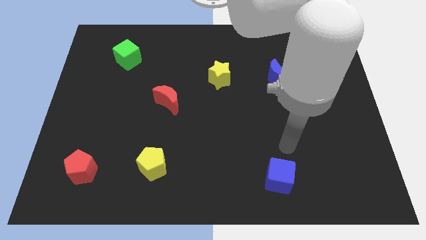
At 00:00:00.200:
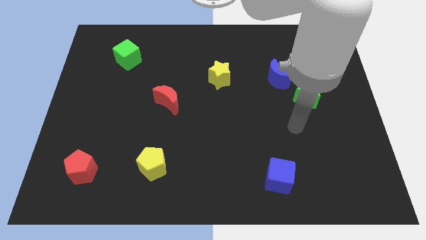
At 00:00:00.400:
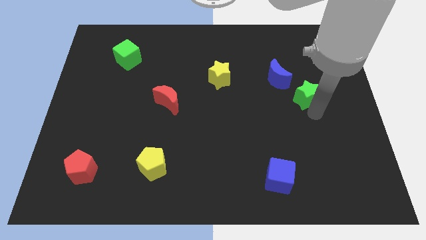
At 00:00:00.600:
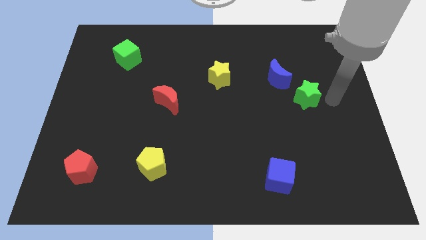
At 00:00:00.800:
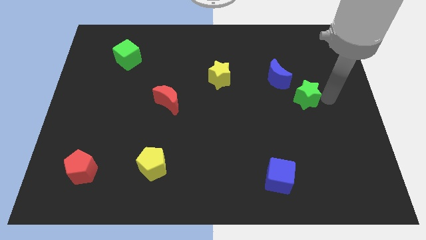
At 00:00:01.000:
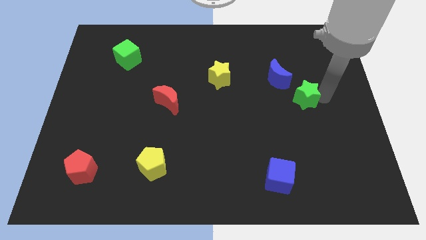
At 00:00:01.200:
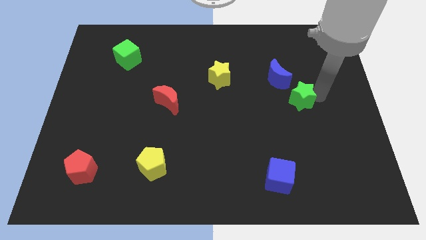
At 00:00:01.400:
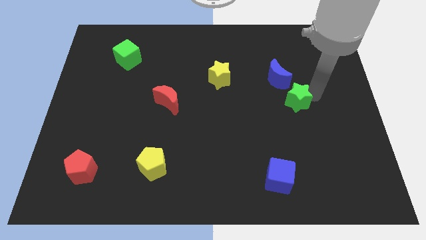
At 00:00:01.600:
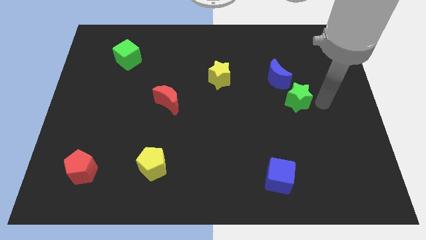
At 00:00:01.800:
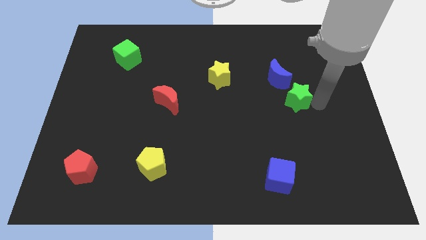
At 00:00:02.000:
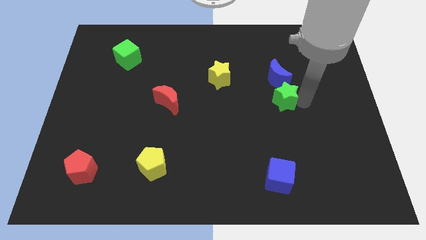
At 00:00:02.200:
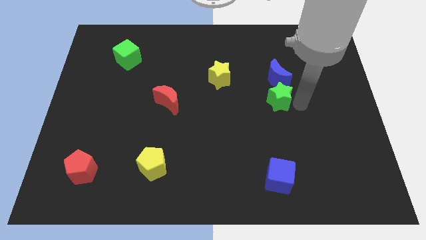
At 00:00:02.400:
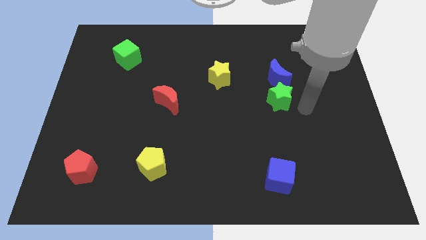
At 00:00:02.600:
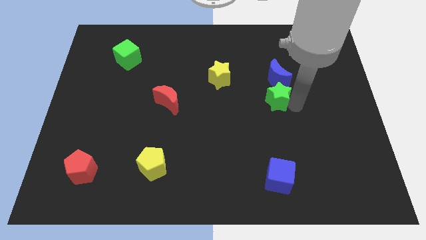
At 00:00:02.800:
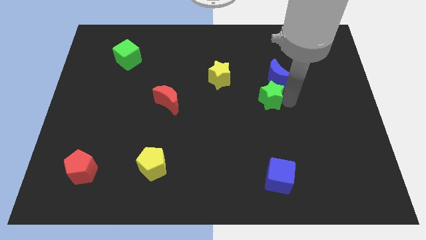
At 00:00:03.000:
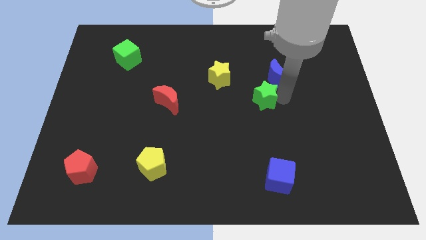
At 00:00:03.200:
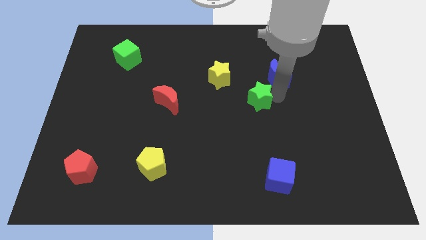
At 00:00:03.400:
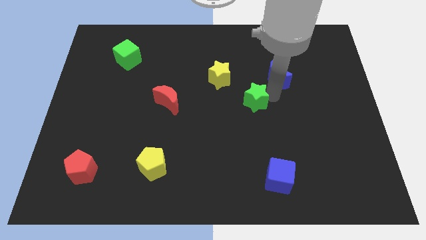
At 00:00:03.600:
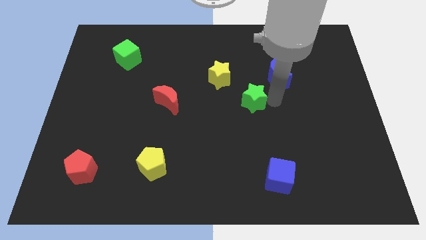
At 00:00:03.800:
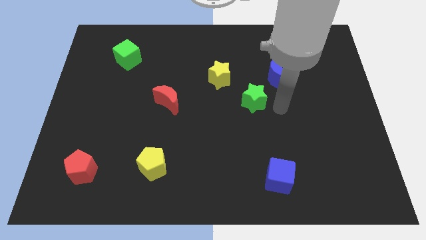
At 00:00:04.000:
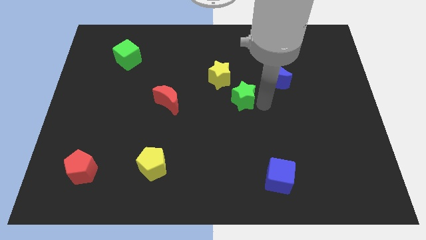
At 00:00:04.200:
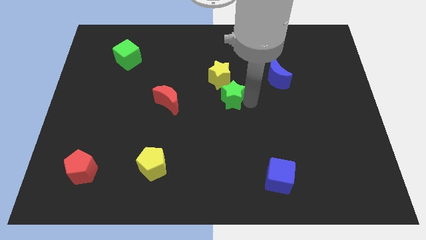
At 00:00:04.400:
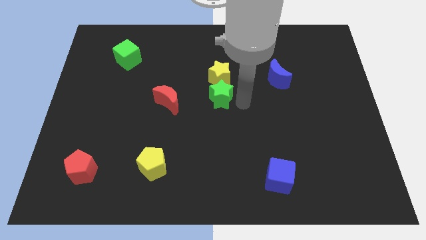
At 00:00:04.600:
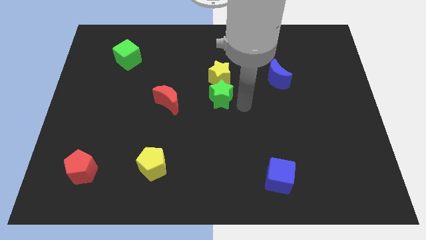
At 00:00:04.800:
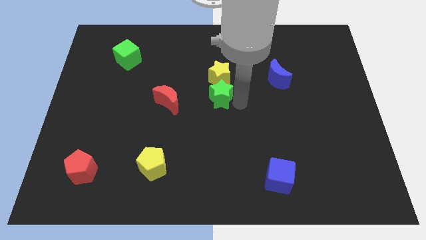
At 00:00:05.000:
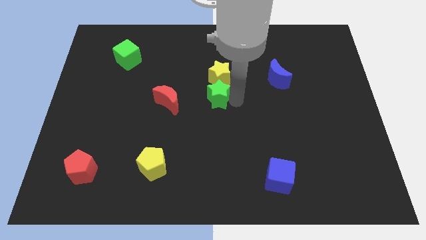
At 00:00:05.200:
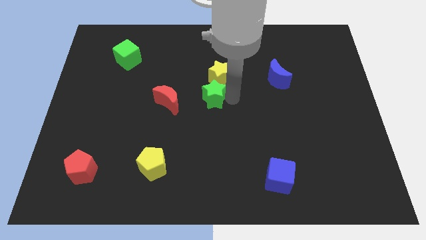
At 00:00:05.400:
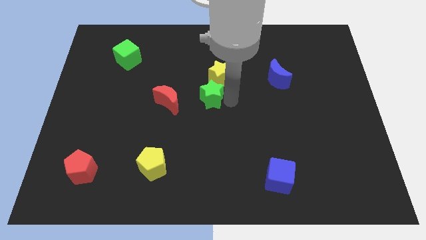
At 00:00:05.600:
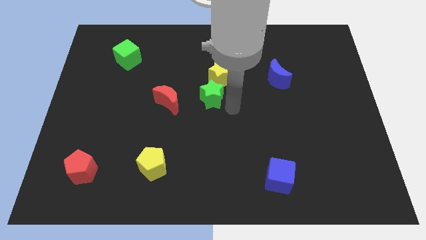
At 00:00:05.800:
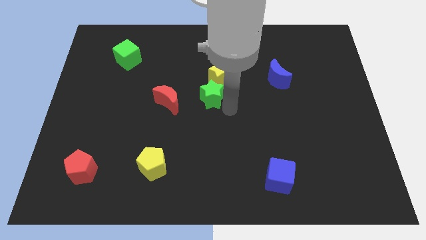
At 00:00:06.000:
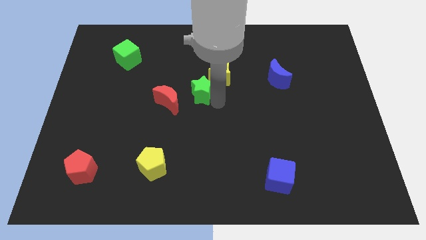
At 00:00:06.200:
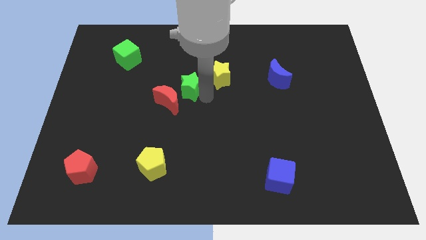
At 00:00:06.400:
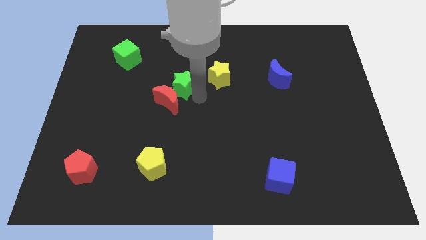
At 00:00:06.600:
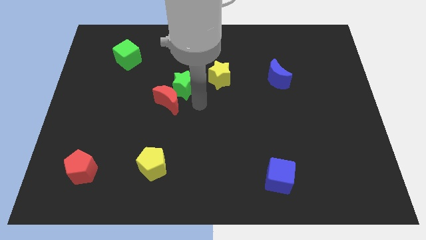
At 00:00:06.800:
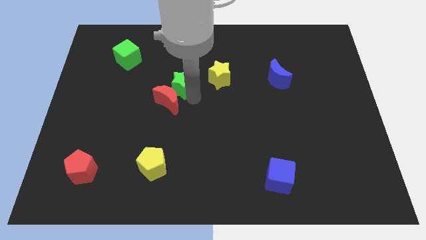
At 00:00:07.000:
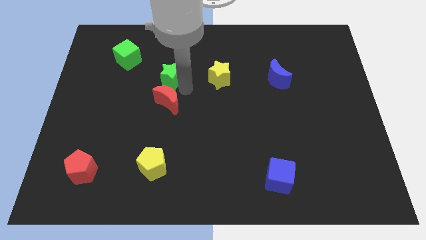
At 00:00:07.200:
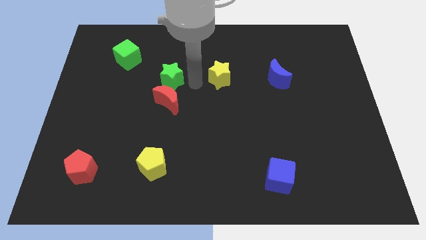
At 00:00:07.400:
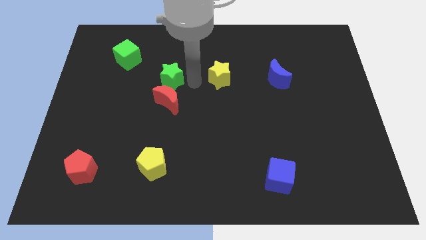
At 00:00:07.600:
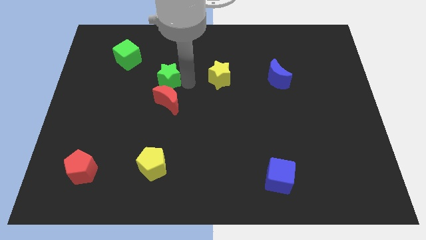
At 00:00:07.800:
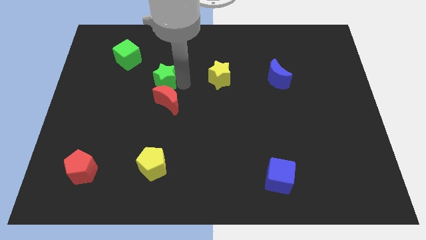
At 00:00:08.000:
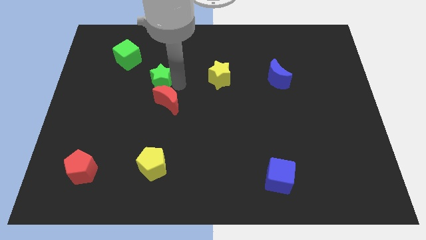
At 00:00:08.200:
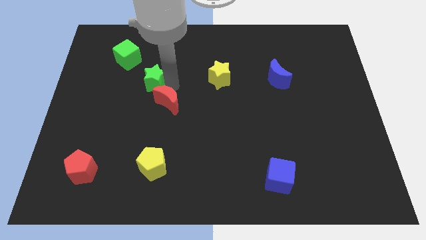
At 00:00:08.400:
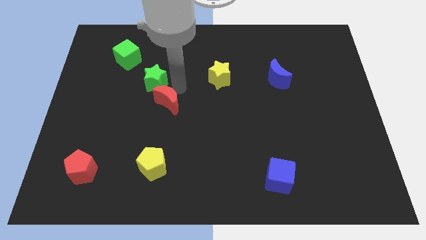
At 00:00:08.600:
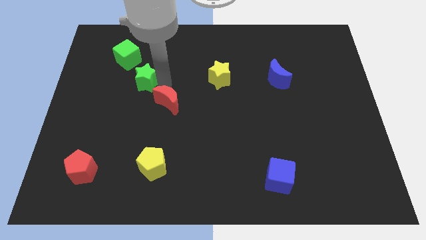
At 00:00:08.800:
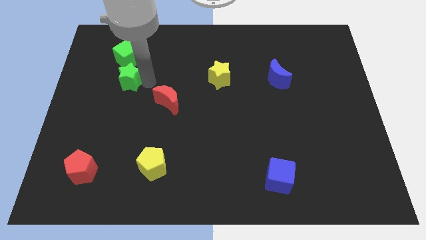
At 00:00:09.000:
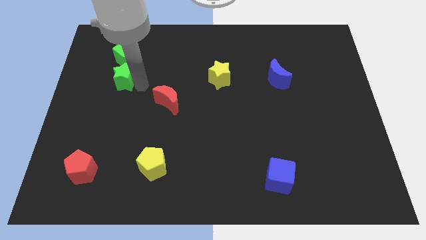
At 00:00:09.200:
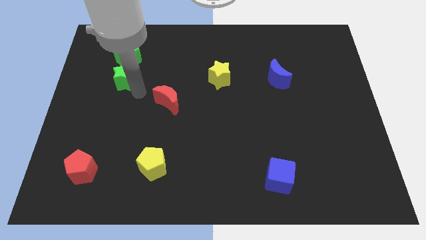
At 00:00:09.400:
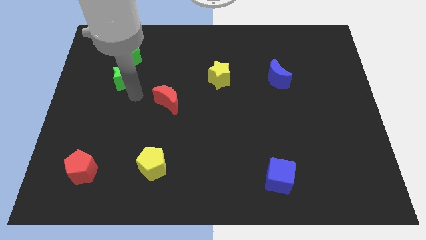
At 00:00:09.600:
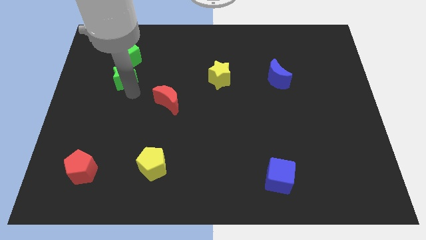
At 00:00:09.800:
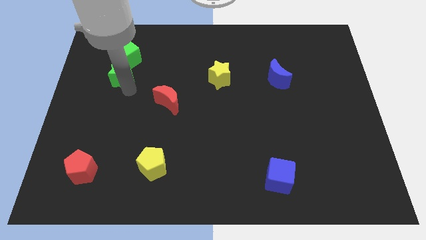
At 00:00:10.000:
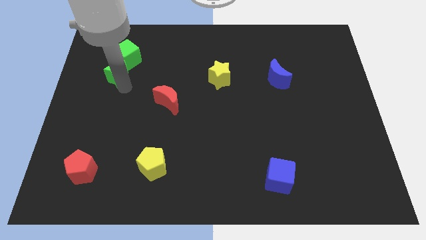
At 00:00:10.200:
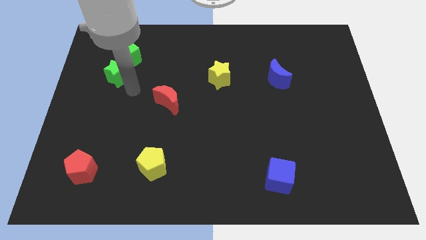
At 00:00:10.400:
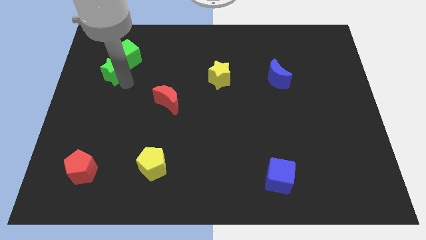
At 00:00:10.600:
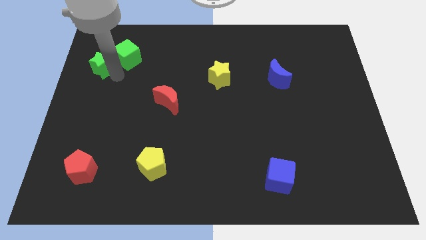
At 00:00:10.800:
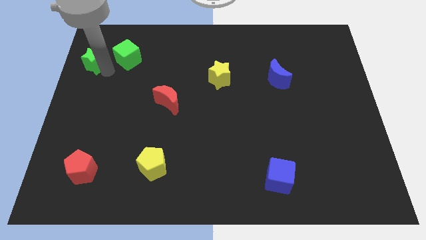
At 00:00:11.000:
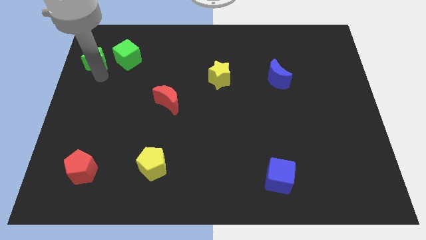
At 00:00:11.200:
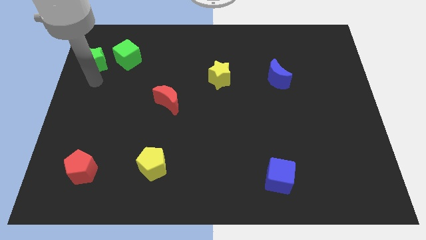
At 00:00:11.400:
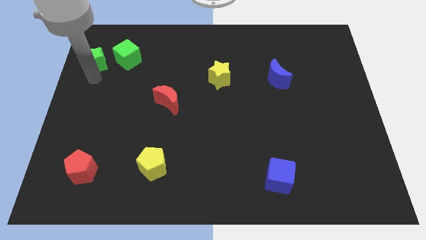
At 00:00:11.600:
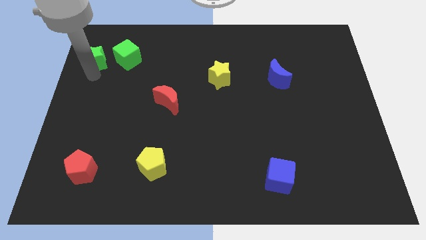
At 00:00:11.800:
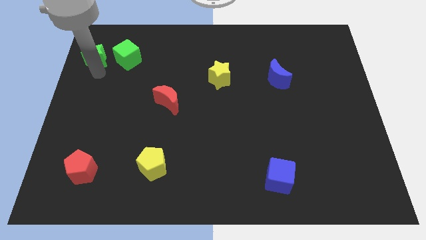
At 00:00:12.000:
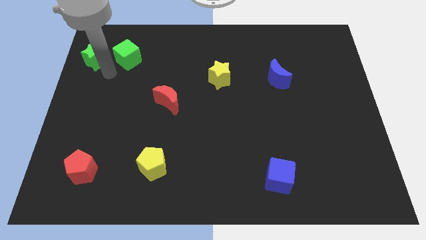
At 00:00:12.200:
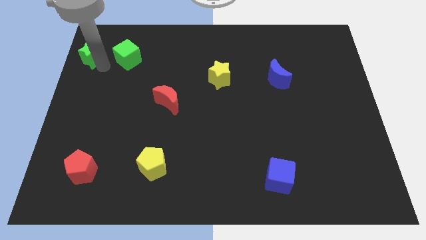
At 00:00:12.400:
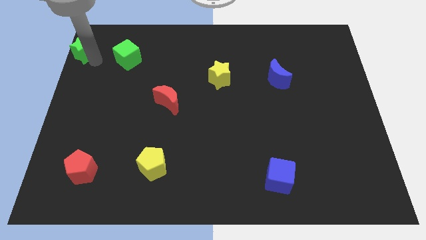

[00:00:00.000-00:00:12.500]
slide the green star to the top left

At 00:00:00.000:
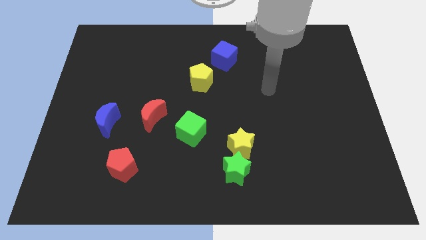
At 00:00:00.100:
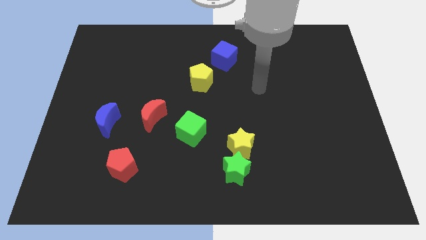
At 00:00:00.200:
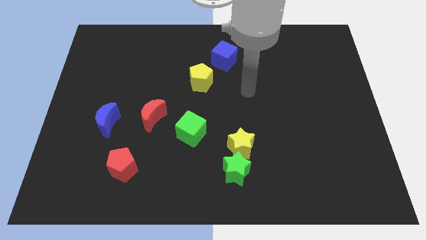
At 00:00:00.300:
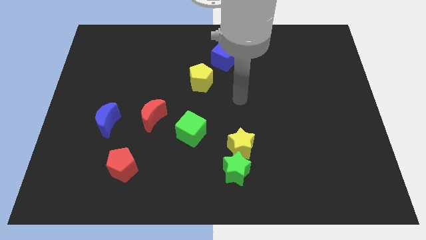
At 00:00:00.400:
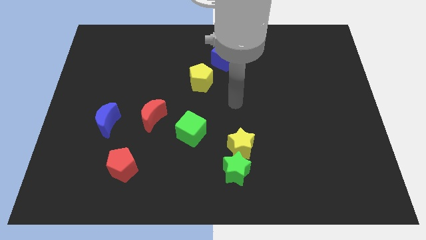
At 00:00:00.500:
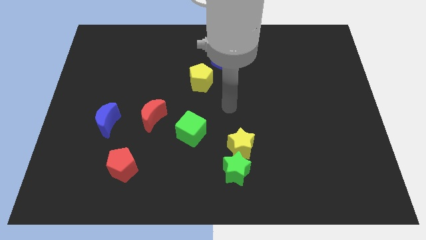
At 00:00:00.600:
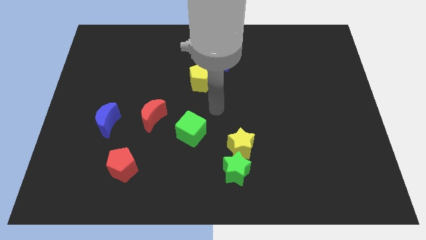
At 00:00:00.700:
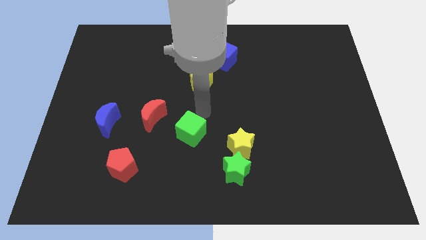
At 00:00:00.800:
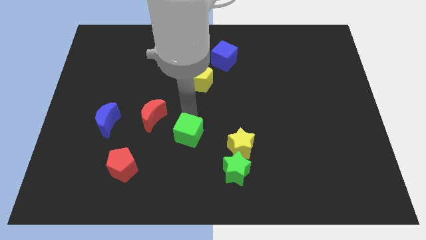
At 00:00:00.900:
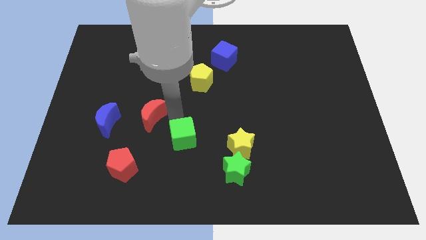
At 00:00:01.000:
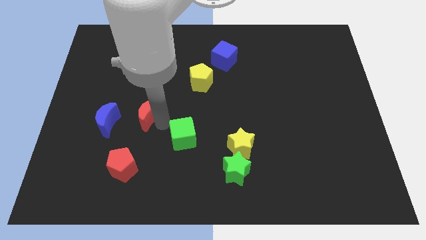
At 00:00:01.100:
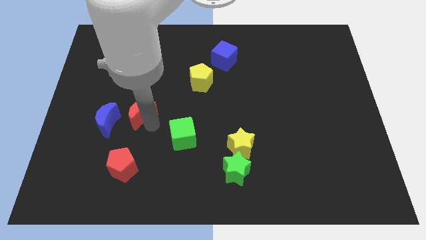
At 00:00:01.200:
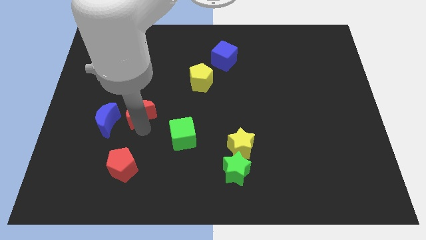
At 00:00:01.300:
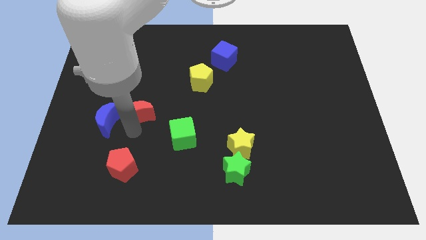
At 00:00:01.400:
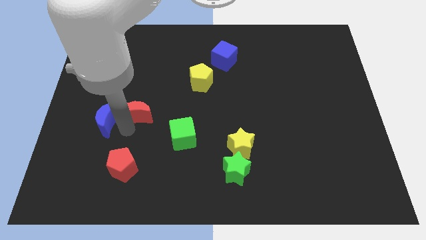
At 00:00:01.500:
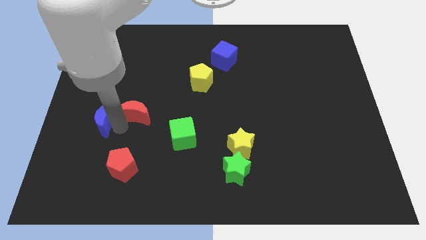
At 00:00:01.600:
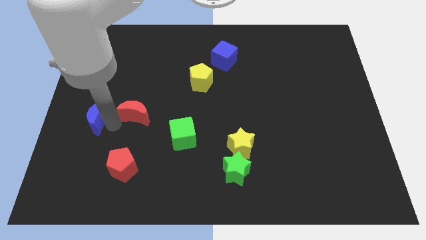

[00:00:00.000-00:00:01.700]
push the blue moon to the left side
